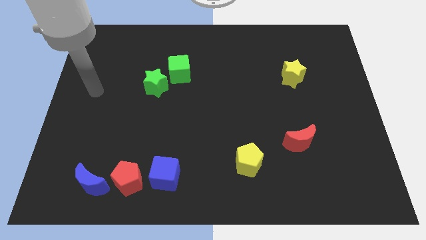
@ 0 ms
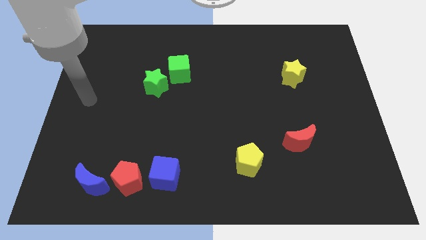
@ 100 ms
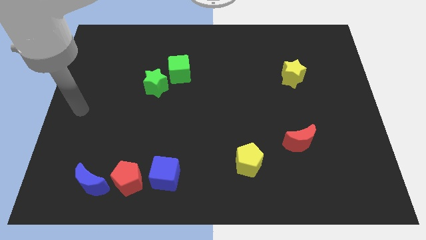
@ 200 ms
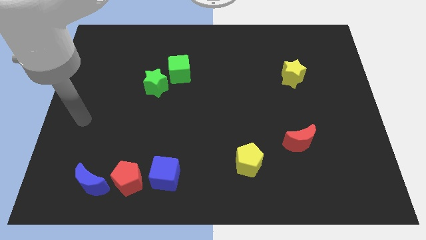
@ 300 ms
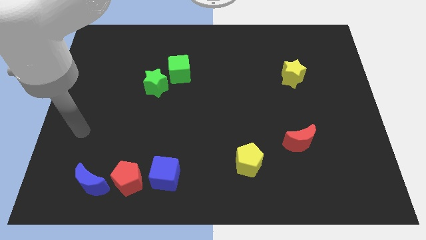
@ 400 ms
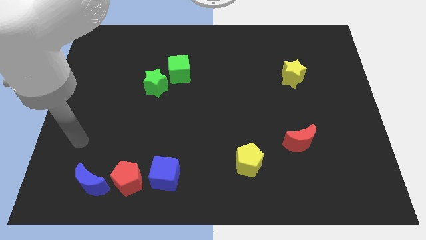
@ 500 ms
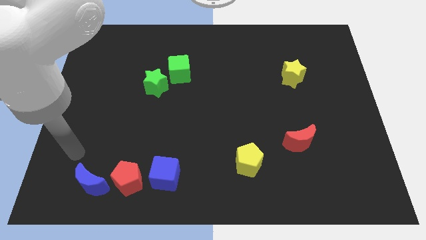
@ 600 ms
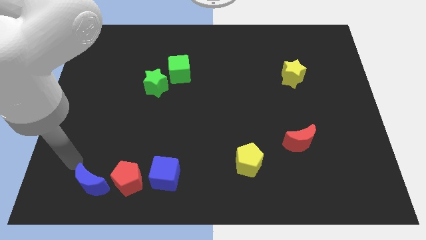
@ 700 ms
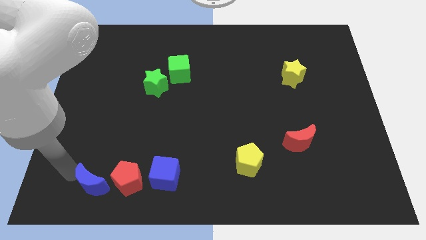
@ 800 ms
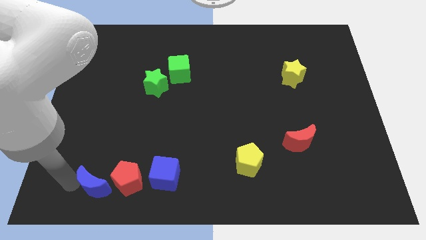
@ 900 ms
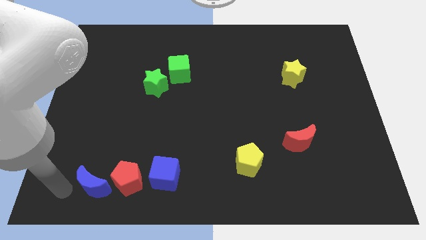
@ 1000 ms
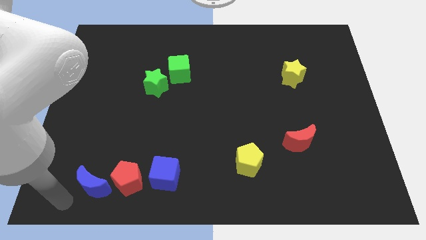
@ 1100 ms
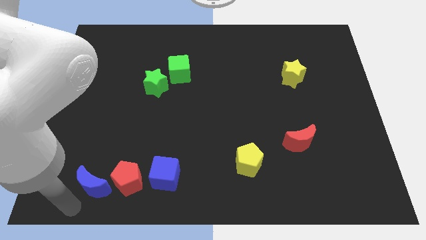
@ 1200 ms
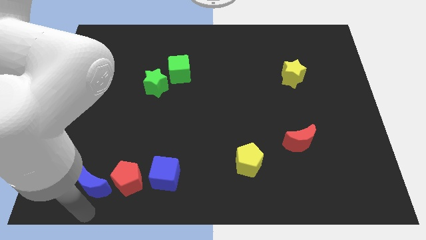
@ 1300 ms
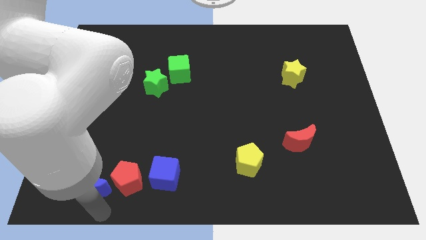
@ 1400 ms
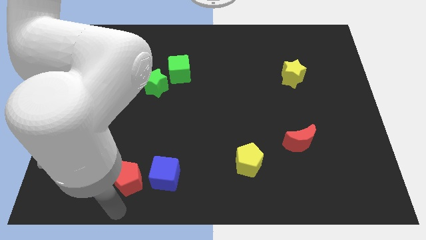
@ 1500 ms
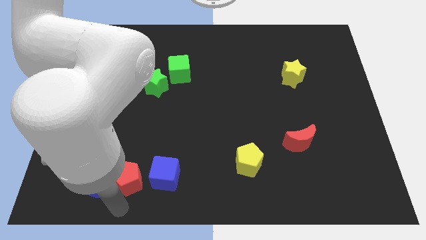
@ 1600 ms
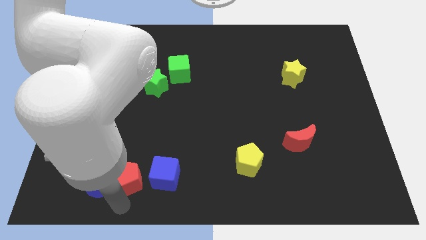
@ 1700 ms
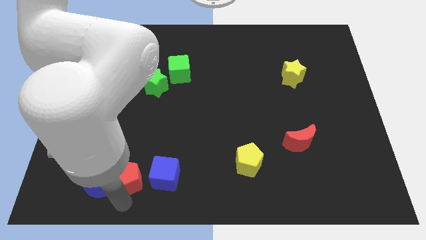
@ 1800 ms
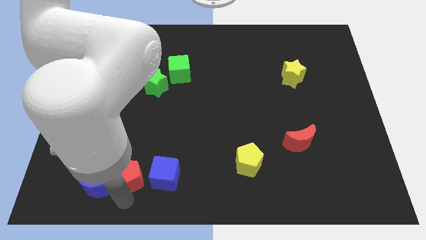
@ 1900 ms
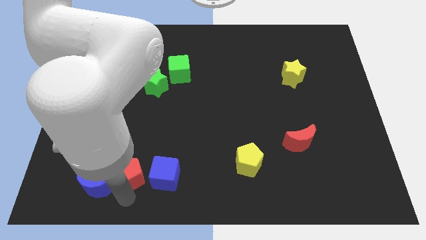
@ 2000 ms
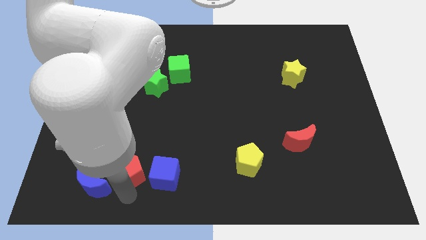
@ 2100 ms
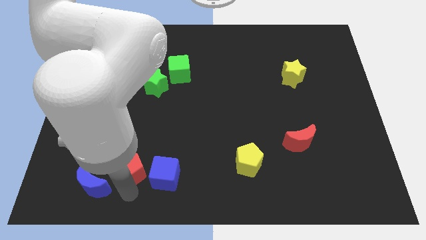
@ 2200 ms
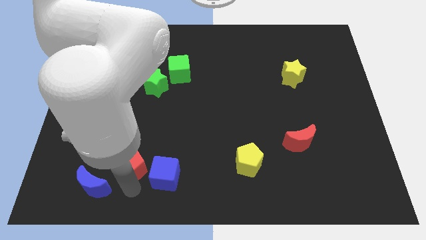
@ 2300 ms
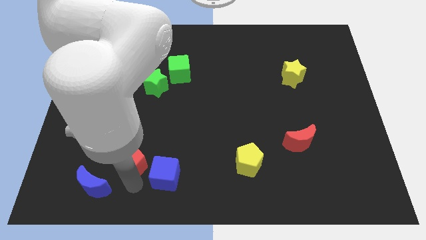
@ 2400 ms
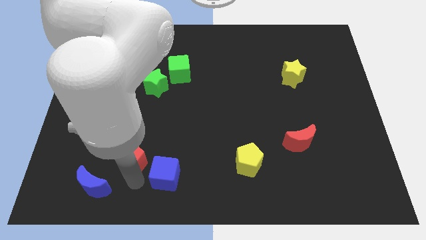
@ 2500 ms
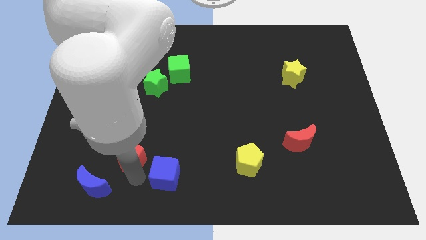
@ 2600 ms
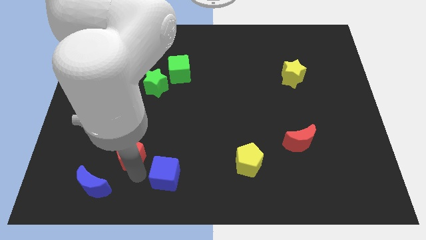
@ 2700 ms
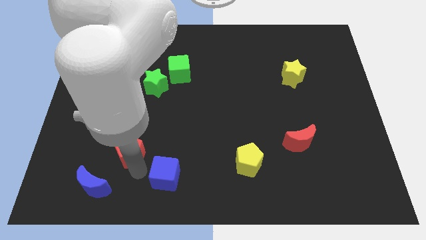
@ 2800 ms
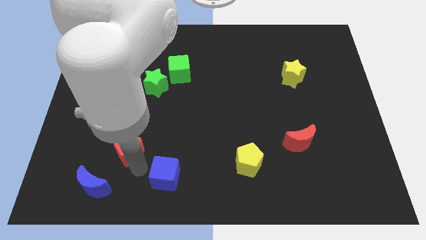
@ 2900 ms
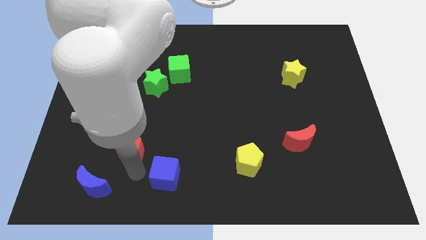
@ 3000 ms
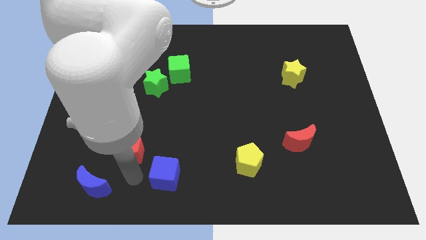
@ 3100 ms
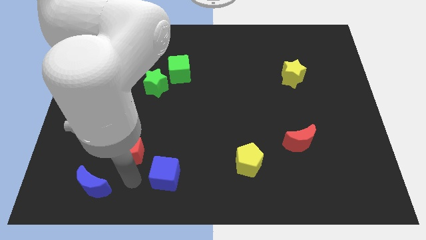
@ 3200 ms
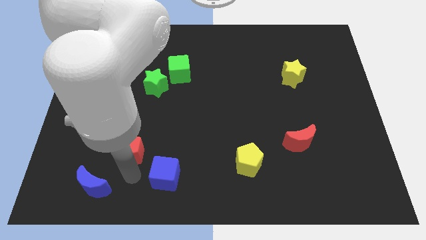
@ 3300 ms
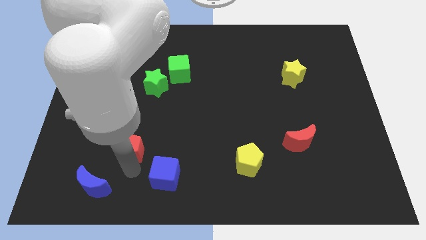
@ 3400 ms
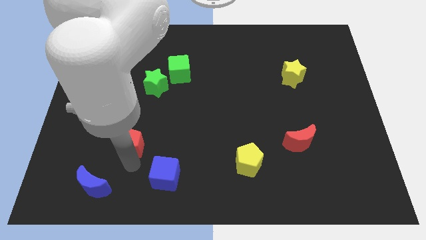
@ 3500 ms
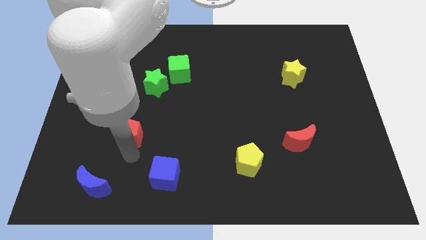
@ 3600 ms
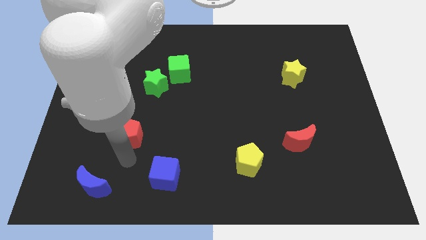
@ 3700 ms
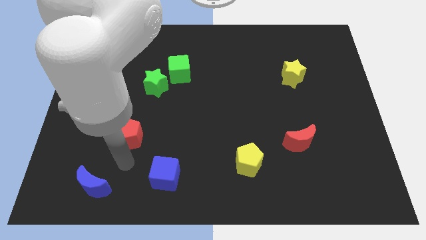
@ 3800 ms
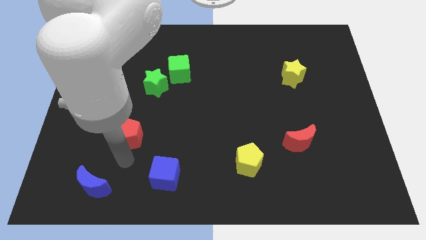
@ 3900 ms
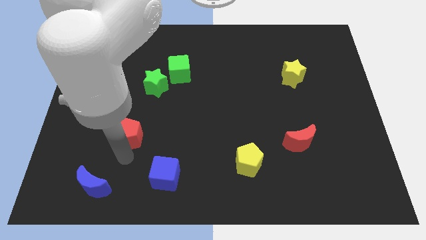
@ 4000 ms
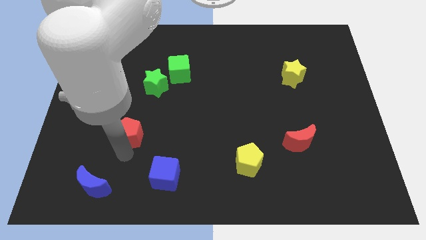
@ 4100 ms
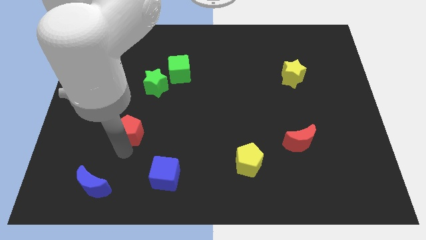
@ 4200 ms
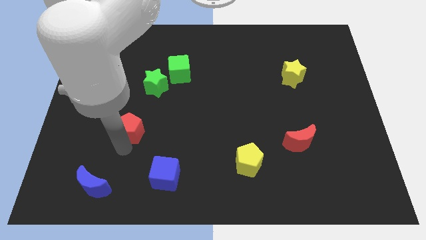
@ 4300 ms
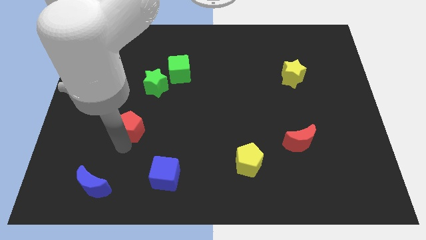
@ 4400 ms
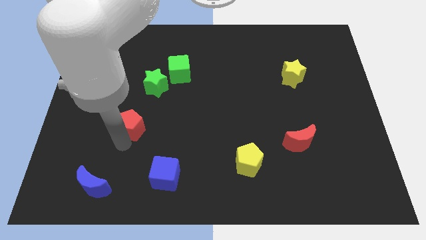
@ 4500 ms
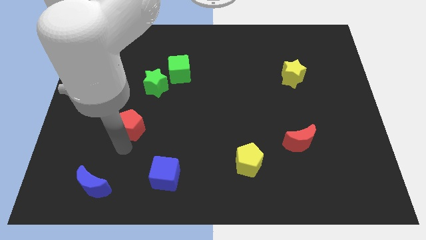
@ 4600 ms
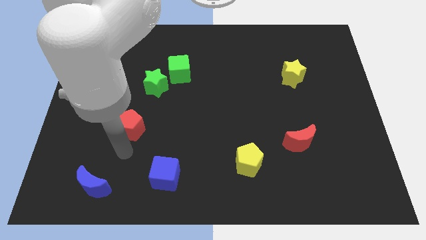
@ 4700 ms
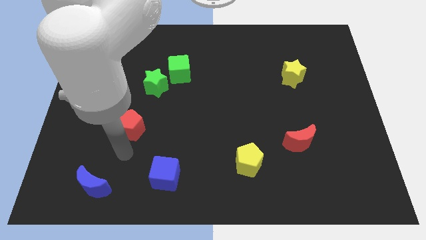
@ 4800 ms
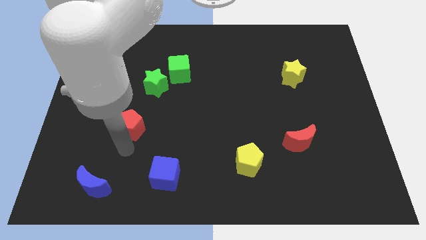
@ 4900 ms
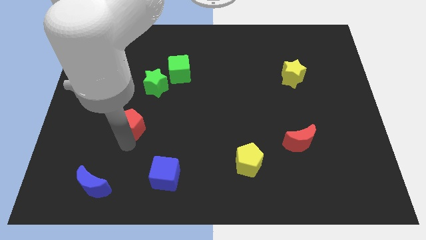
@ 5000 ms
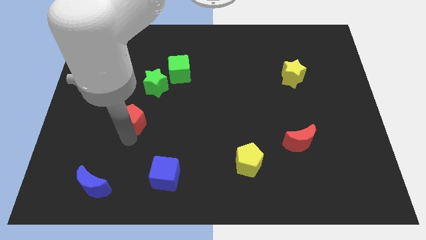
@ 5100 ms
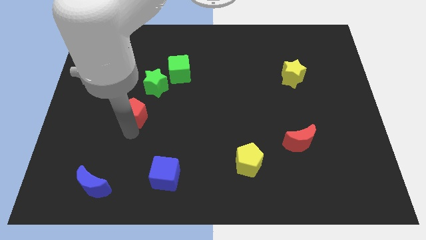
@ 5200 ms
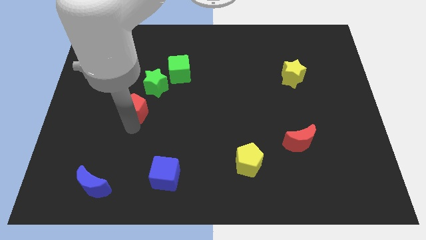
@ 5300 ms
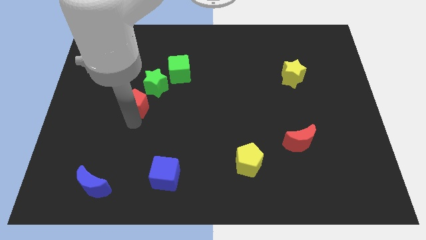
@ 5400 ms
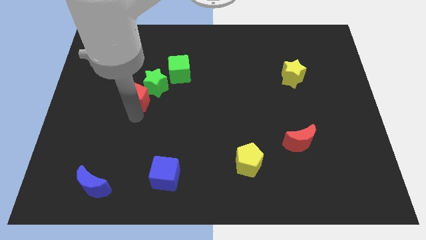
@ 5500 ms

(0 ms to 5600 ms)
slide the red pentagon up

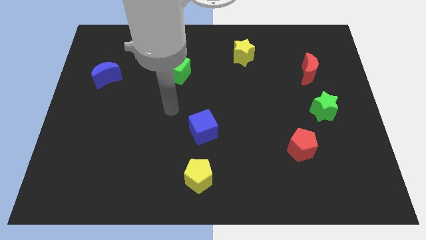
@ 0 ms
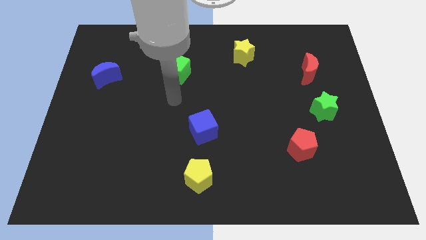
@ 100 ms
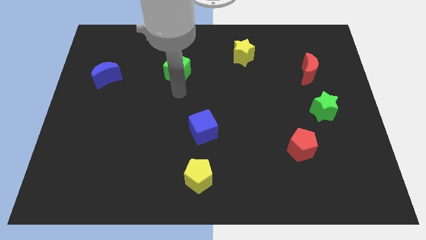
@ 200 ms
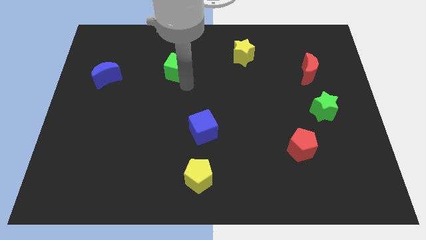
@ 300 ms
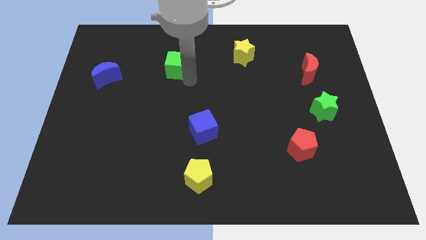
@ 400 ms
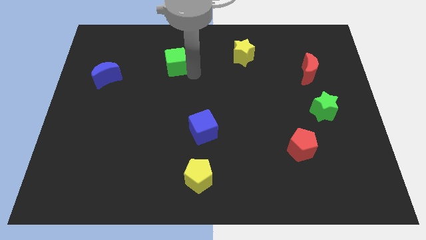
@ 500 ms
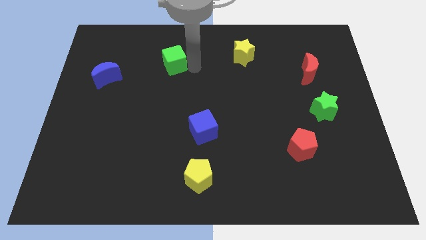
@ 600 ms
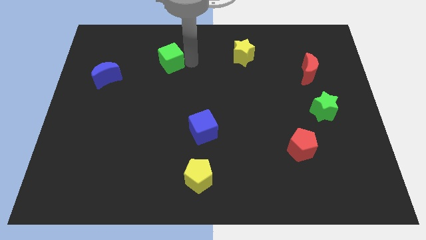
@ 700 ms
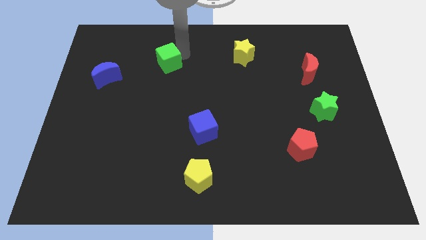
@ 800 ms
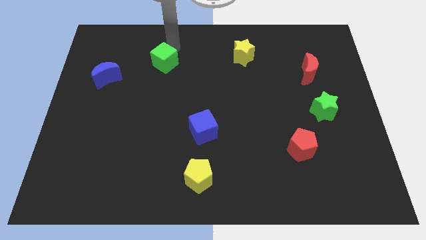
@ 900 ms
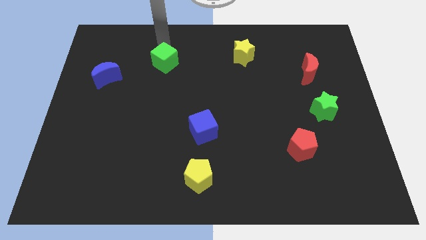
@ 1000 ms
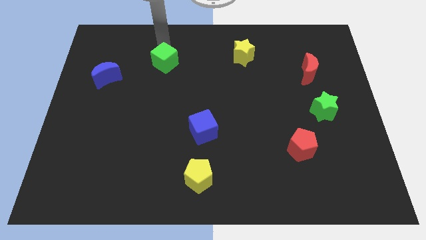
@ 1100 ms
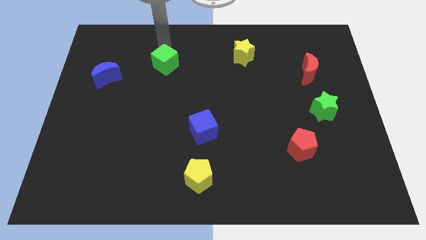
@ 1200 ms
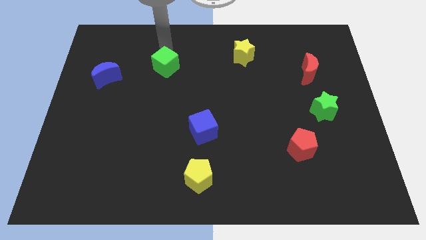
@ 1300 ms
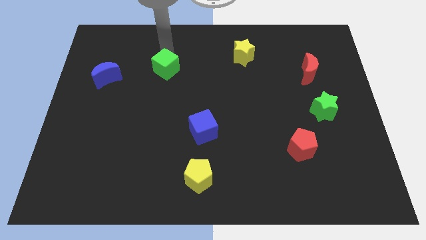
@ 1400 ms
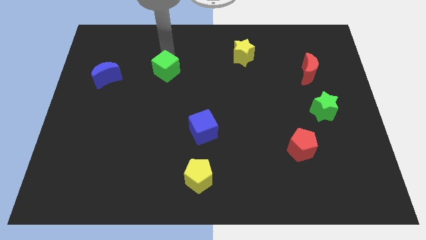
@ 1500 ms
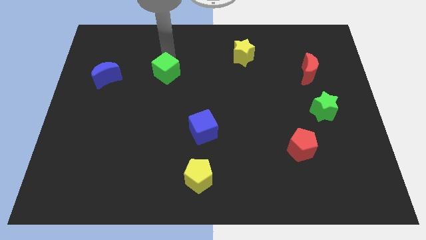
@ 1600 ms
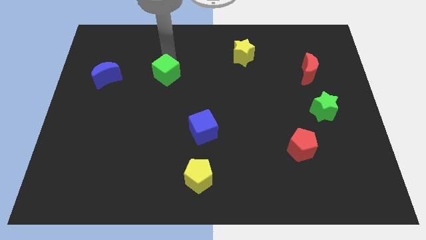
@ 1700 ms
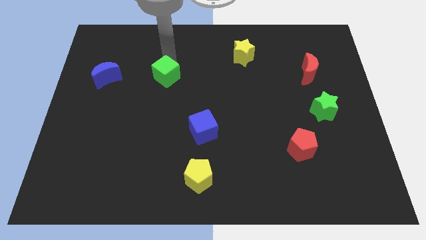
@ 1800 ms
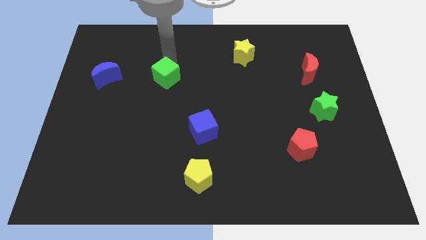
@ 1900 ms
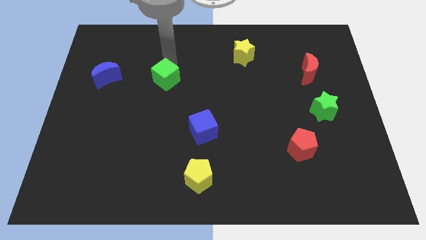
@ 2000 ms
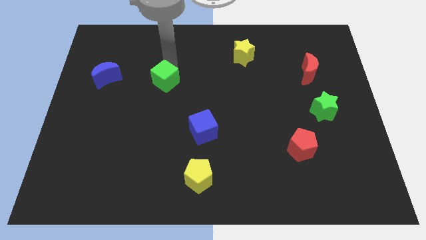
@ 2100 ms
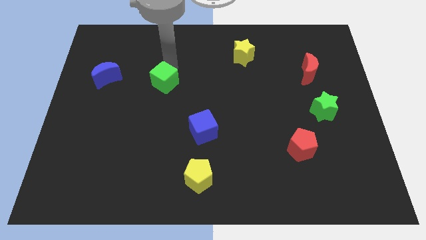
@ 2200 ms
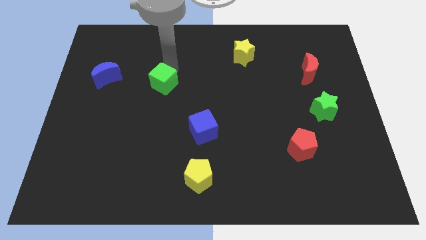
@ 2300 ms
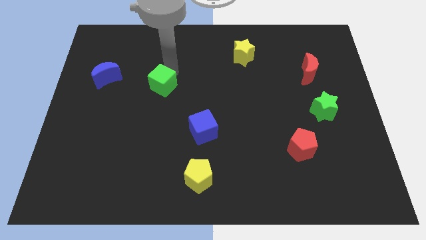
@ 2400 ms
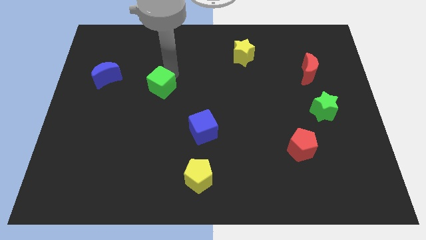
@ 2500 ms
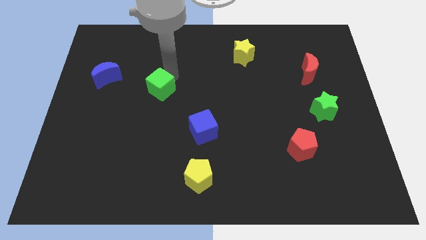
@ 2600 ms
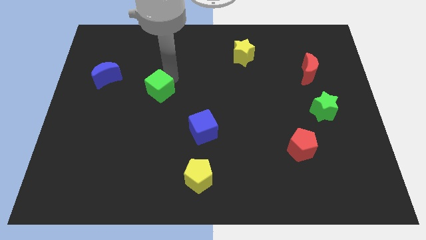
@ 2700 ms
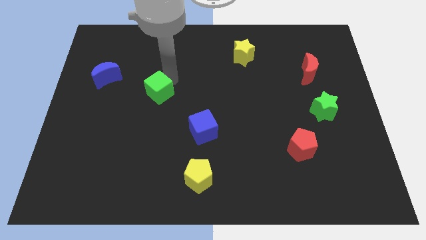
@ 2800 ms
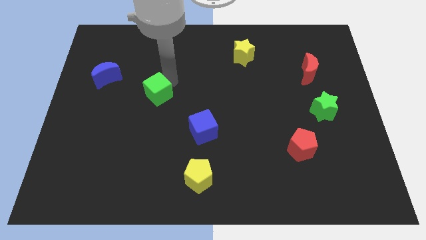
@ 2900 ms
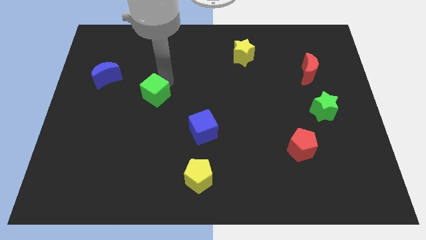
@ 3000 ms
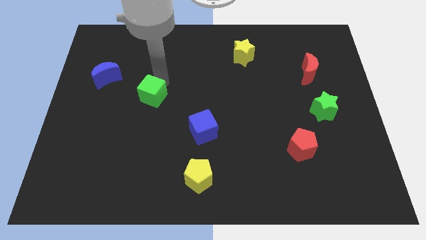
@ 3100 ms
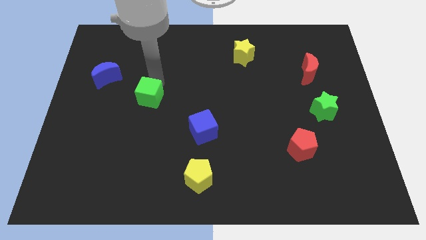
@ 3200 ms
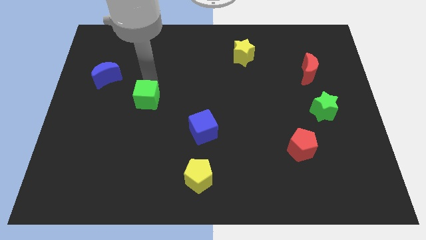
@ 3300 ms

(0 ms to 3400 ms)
slide the green cube down a little
